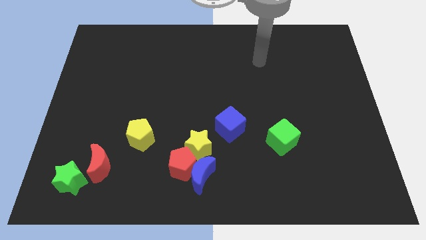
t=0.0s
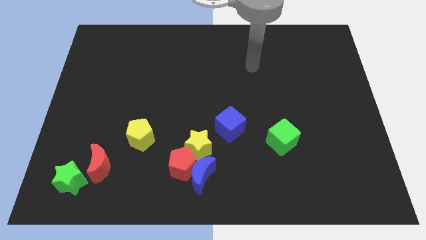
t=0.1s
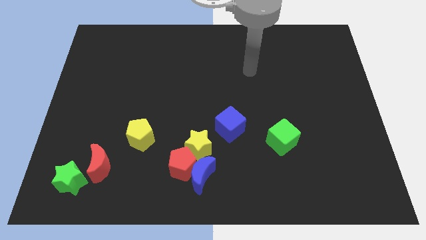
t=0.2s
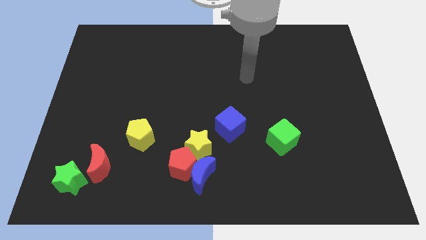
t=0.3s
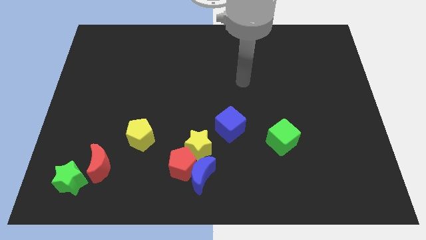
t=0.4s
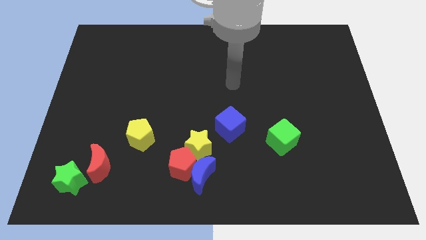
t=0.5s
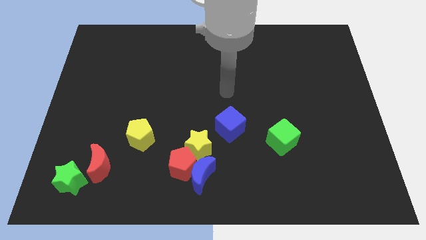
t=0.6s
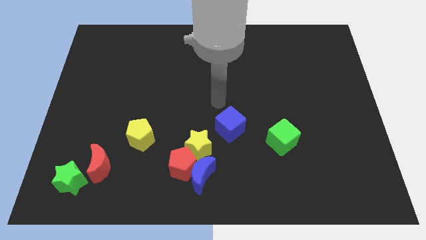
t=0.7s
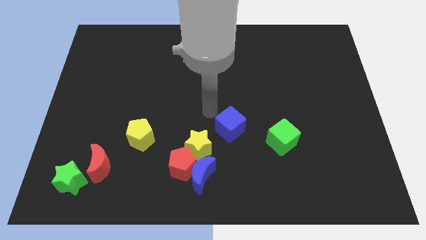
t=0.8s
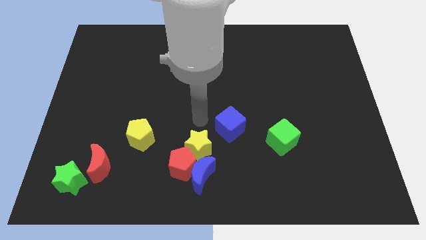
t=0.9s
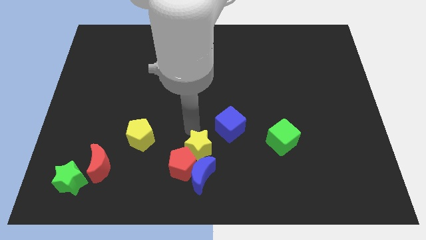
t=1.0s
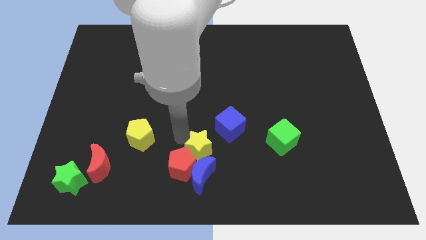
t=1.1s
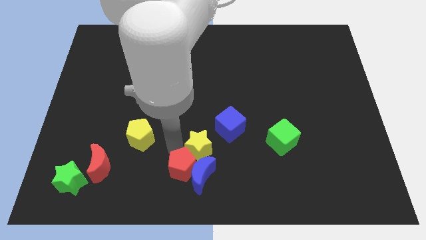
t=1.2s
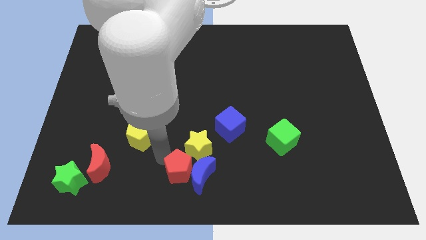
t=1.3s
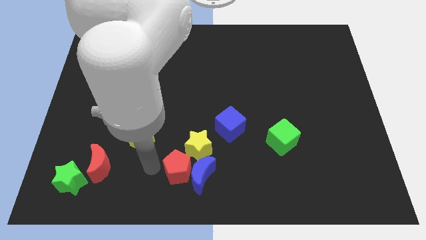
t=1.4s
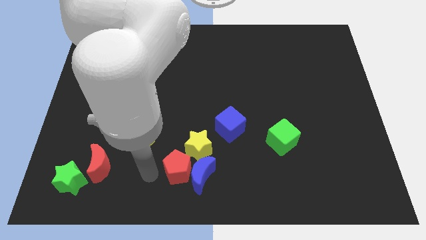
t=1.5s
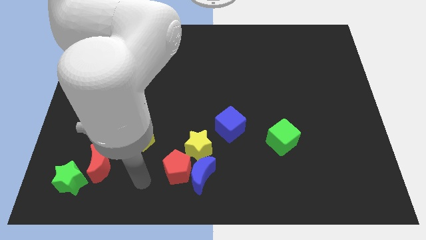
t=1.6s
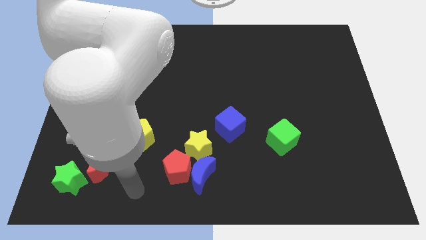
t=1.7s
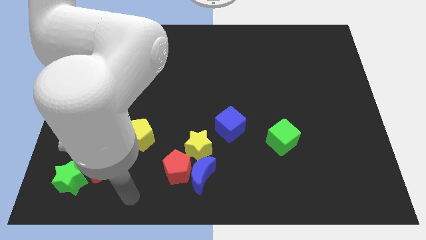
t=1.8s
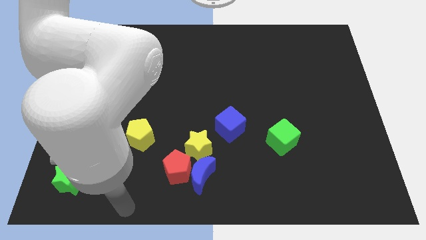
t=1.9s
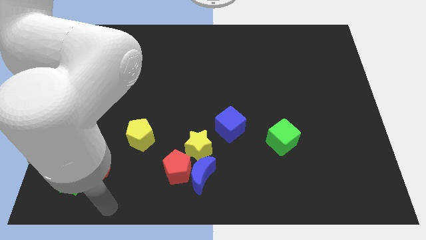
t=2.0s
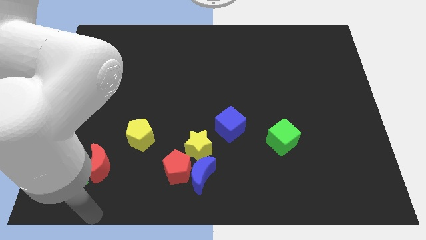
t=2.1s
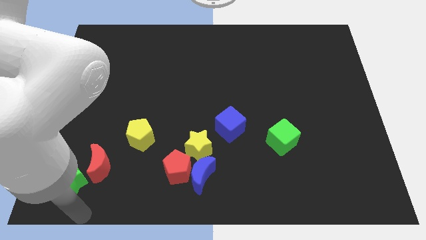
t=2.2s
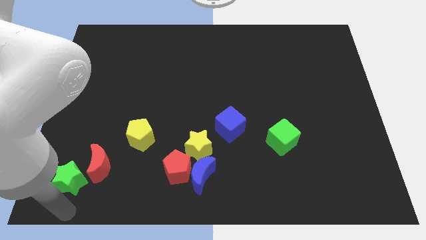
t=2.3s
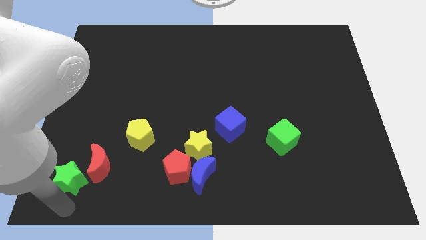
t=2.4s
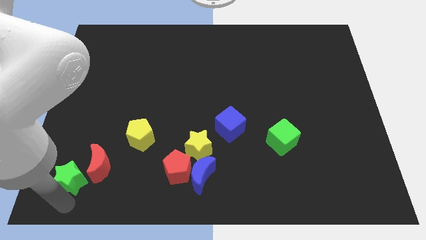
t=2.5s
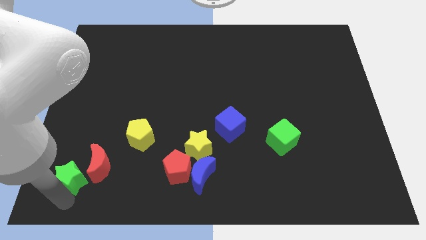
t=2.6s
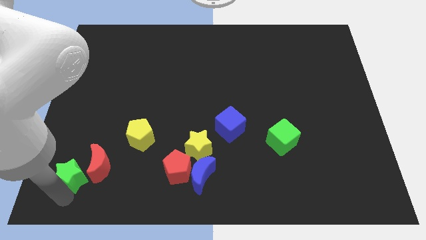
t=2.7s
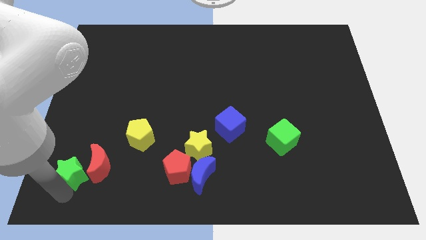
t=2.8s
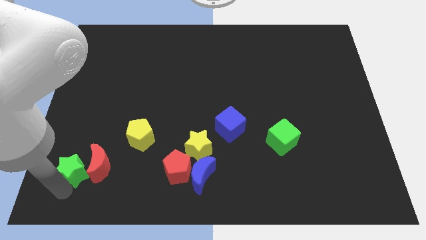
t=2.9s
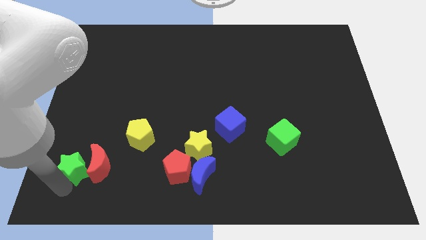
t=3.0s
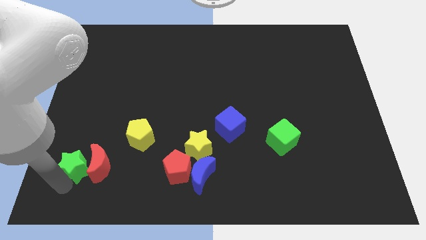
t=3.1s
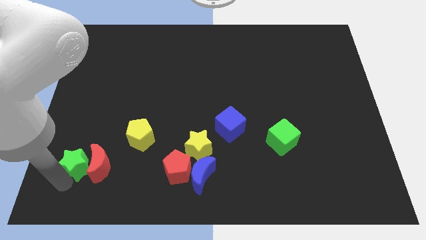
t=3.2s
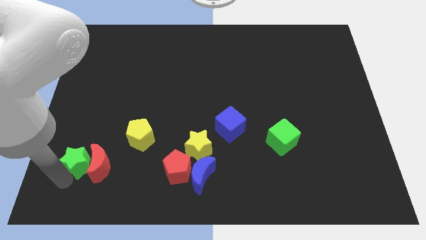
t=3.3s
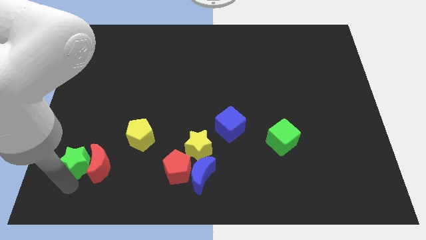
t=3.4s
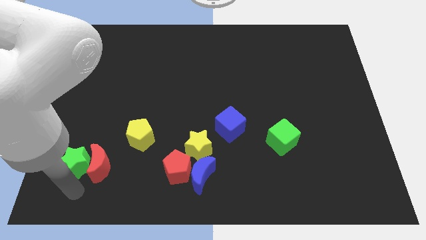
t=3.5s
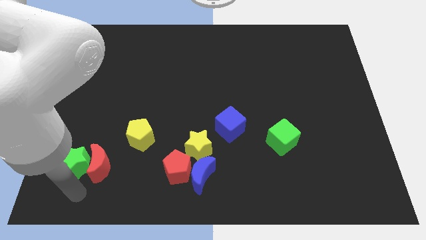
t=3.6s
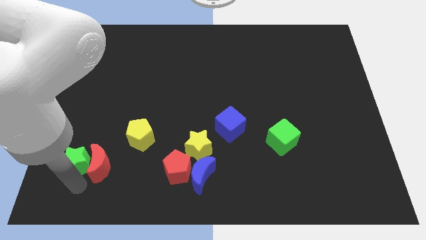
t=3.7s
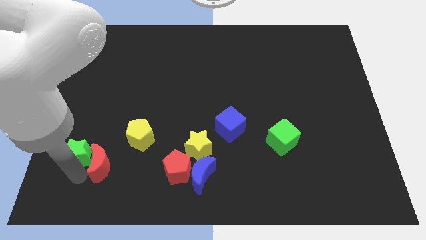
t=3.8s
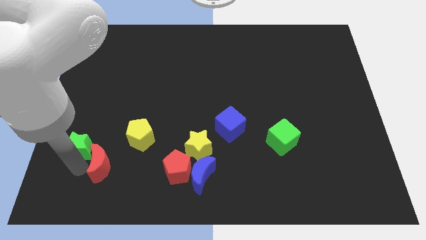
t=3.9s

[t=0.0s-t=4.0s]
slide the green star up a bit

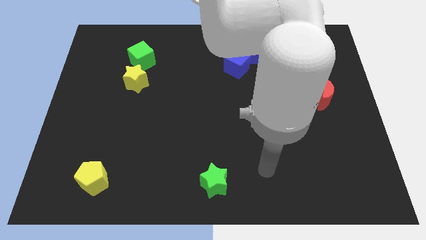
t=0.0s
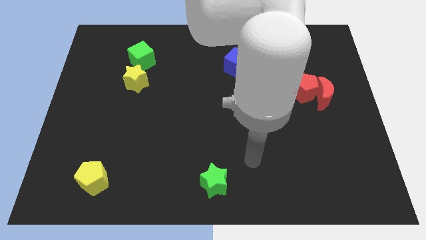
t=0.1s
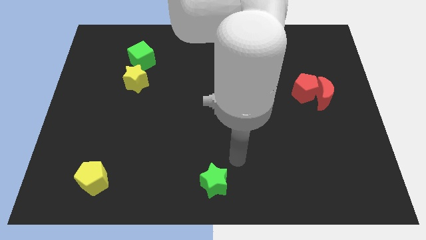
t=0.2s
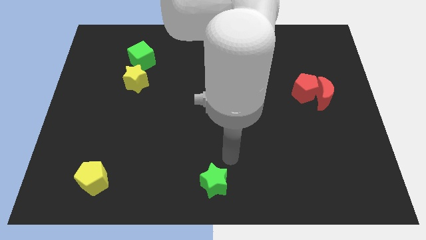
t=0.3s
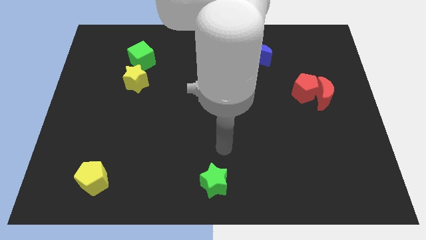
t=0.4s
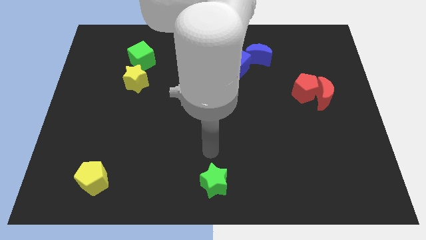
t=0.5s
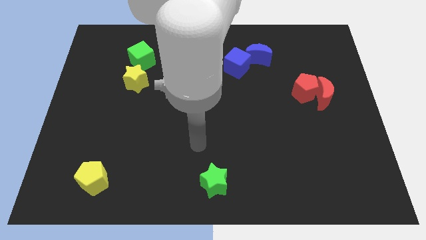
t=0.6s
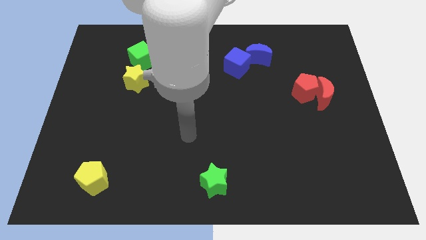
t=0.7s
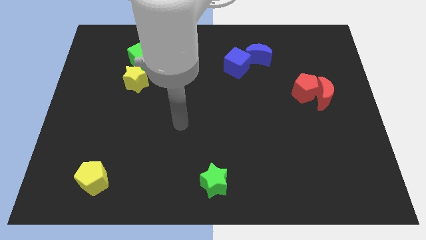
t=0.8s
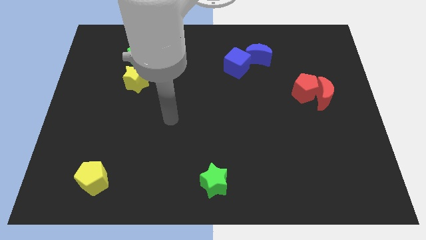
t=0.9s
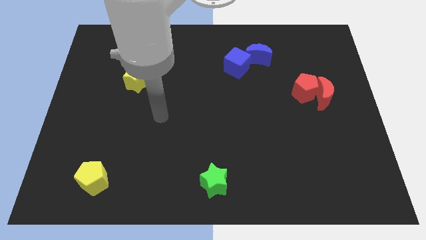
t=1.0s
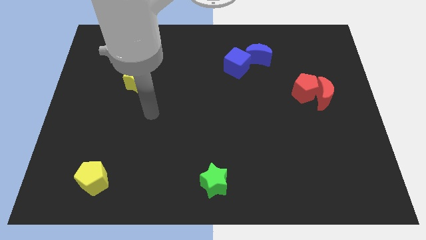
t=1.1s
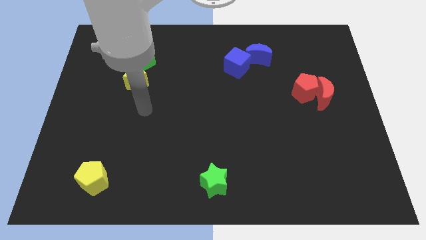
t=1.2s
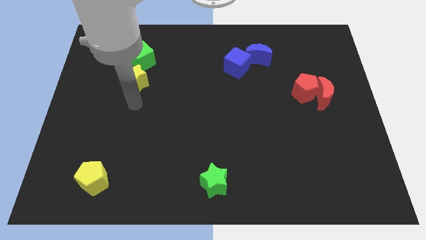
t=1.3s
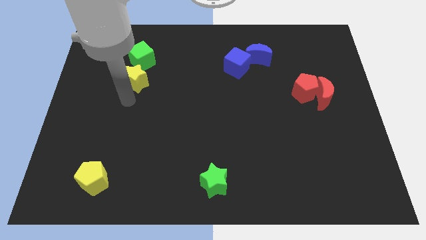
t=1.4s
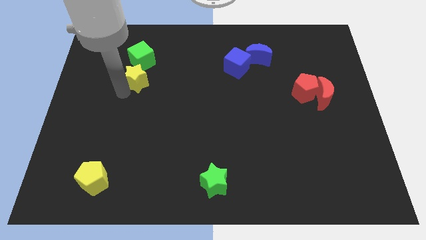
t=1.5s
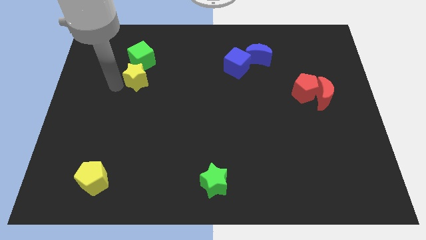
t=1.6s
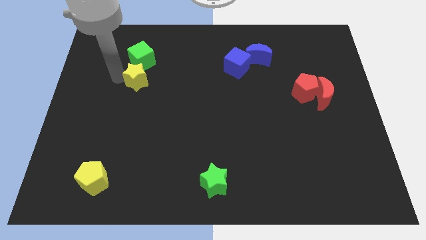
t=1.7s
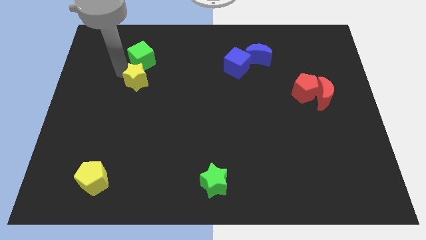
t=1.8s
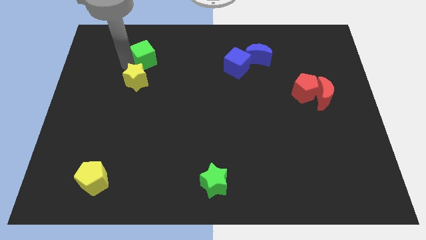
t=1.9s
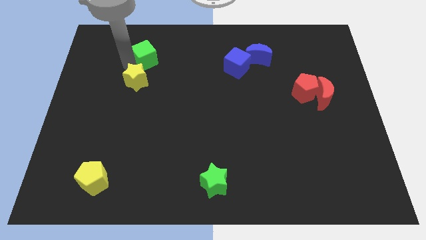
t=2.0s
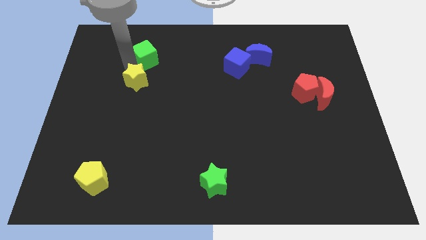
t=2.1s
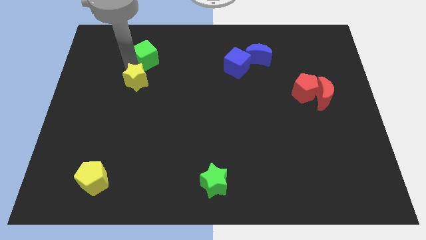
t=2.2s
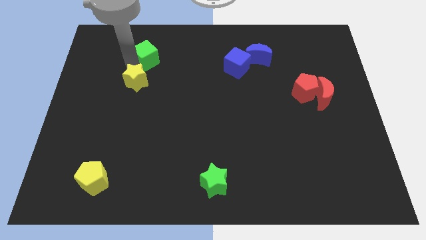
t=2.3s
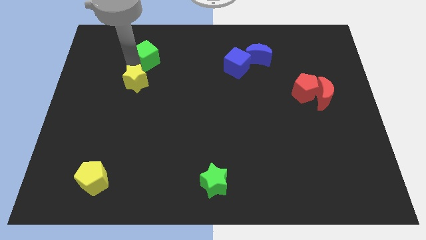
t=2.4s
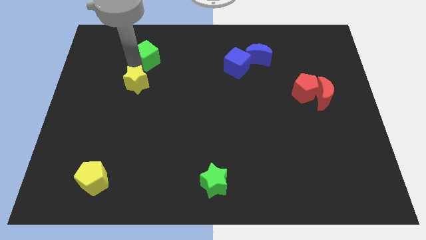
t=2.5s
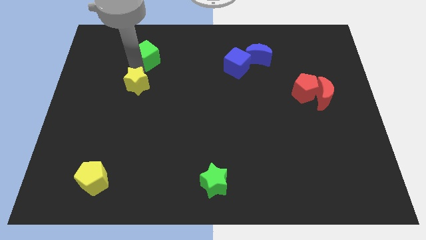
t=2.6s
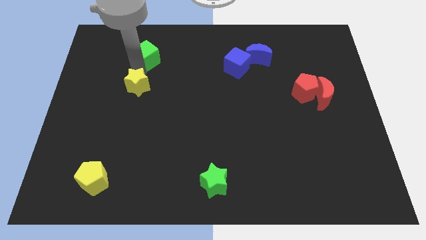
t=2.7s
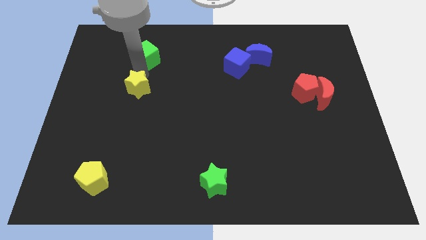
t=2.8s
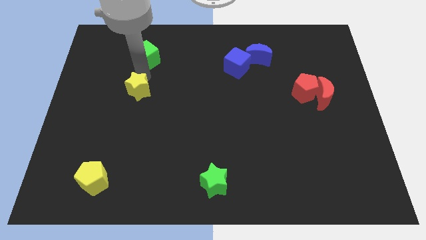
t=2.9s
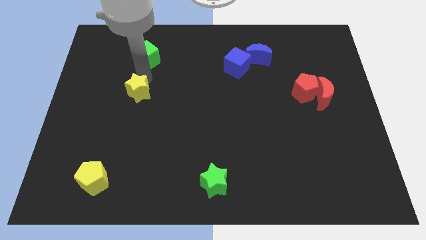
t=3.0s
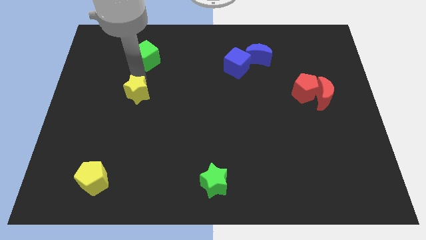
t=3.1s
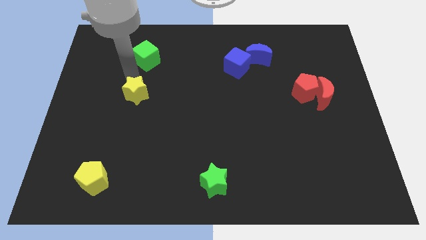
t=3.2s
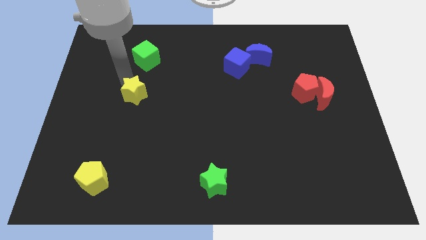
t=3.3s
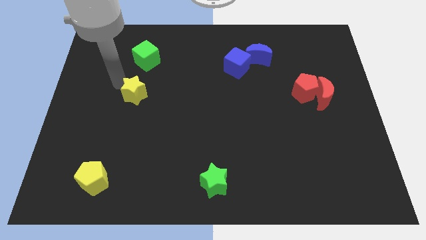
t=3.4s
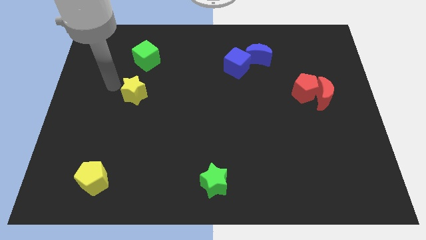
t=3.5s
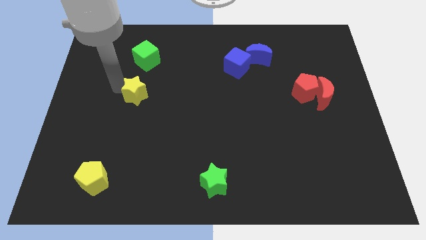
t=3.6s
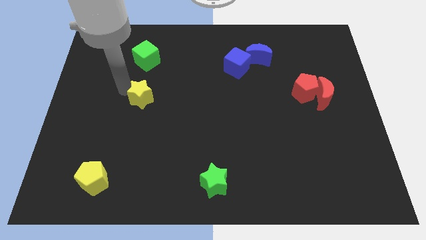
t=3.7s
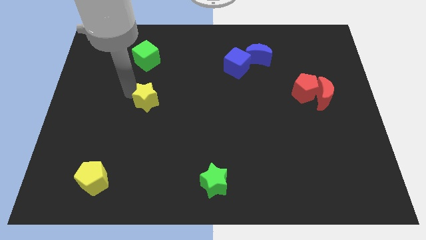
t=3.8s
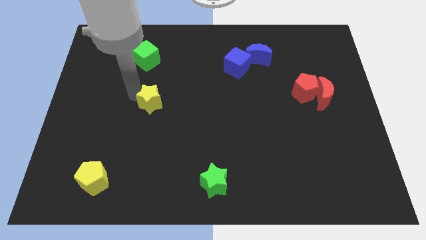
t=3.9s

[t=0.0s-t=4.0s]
slide the yellow star a little downwards and then to the right
